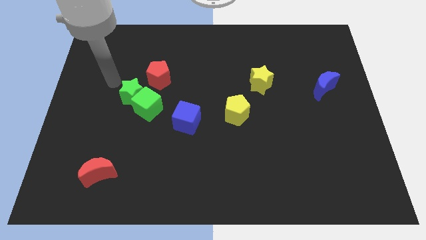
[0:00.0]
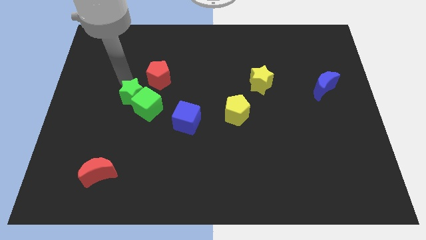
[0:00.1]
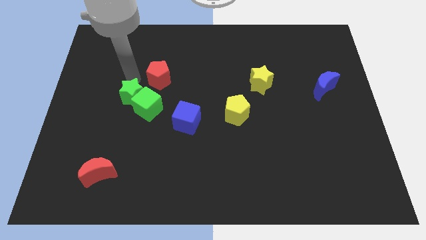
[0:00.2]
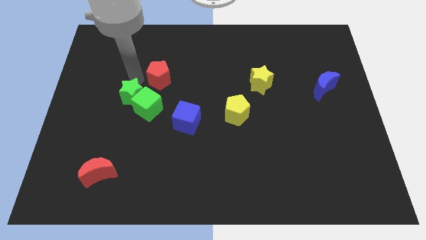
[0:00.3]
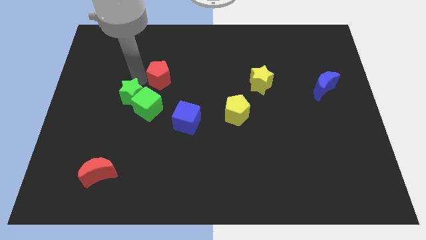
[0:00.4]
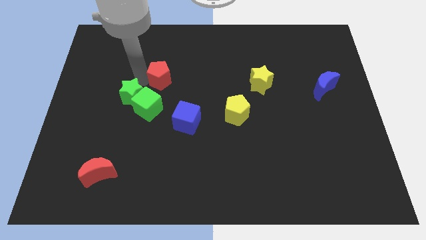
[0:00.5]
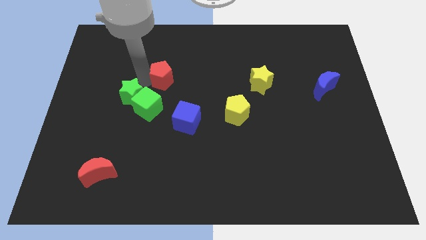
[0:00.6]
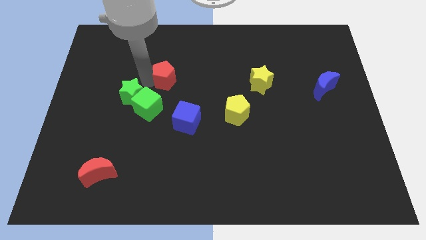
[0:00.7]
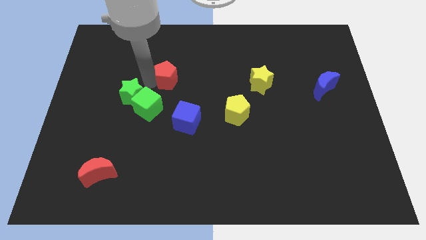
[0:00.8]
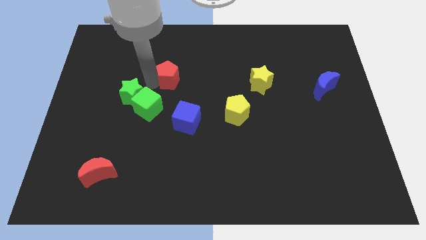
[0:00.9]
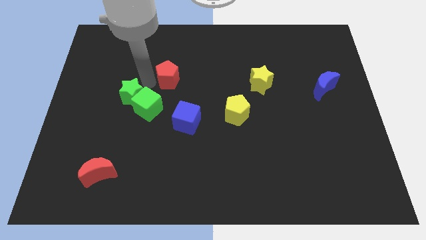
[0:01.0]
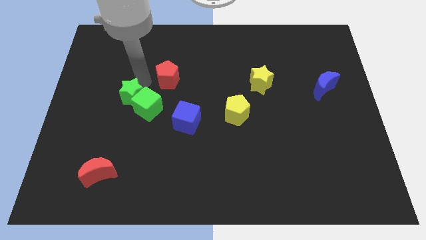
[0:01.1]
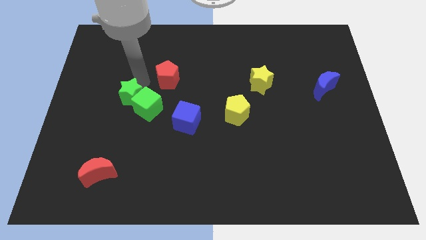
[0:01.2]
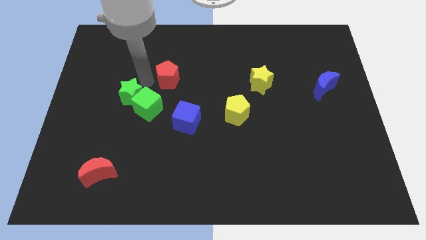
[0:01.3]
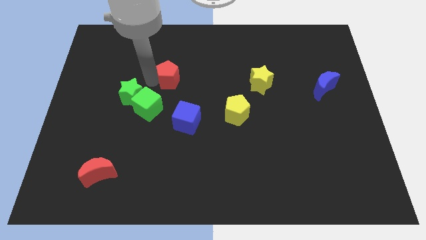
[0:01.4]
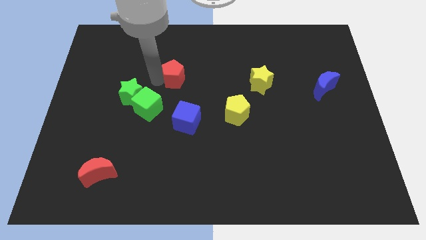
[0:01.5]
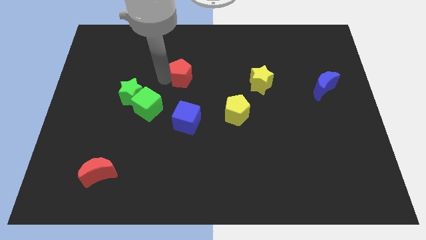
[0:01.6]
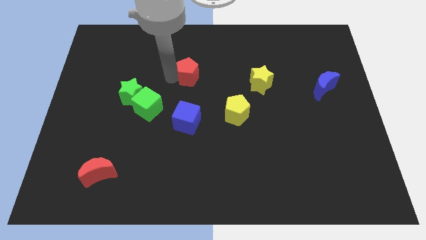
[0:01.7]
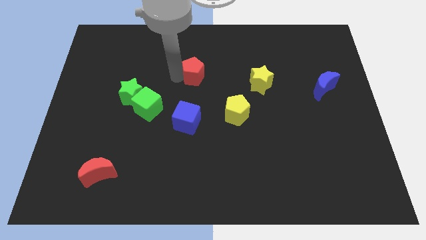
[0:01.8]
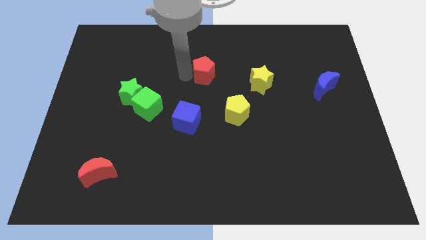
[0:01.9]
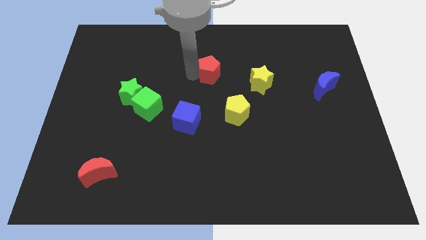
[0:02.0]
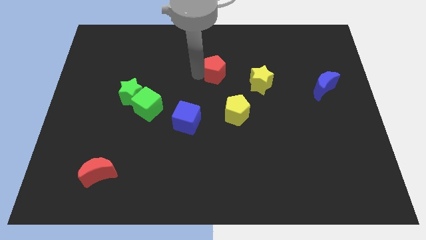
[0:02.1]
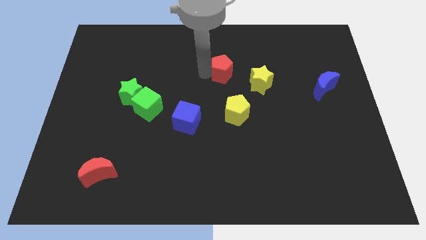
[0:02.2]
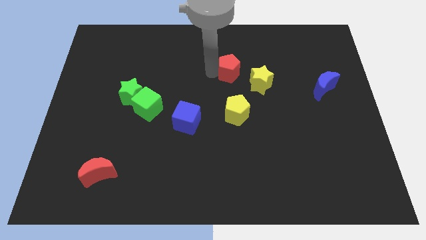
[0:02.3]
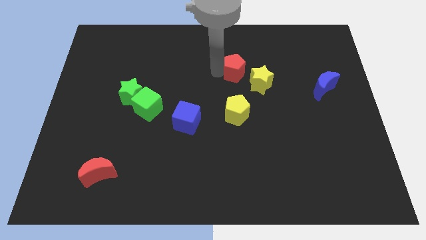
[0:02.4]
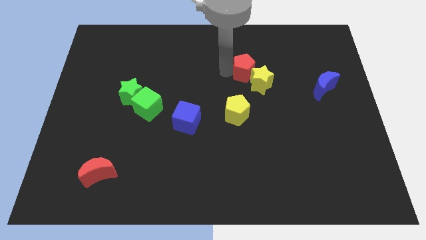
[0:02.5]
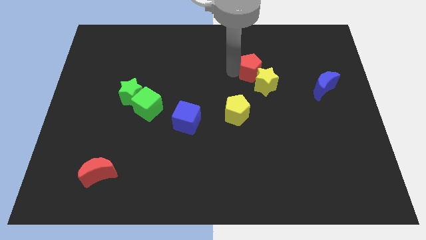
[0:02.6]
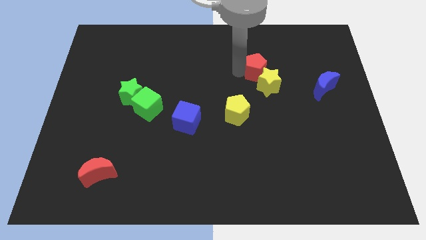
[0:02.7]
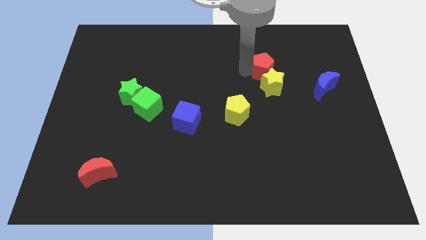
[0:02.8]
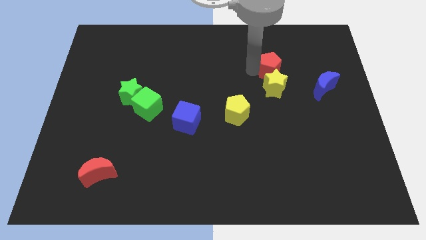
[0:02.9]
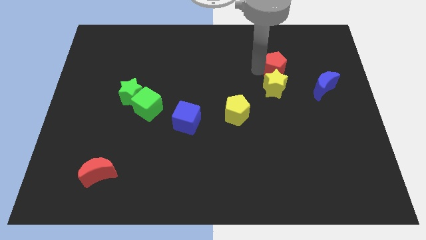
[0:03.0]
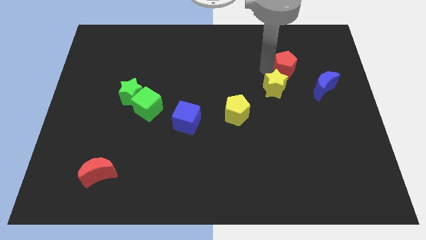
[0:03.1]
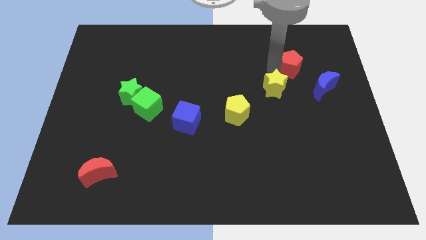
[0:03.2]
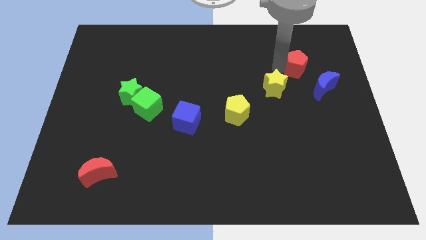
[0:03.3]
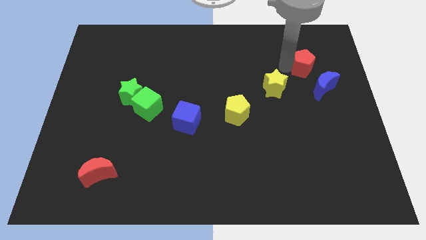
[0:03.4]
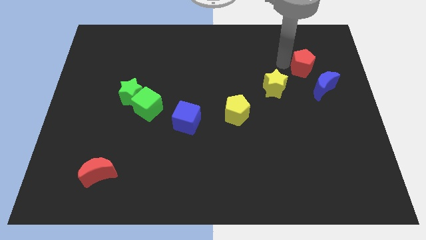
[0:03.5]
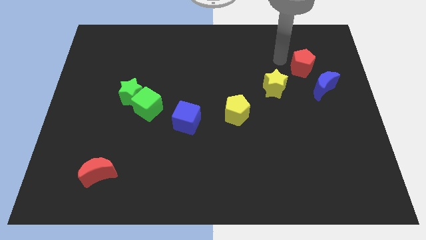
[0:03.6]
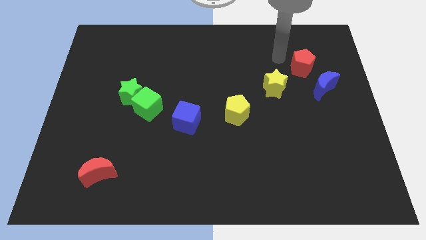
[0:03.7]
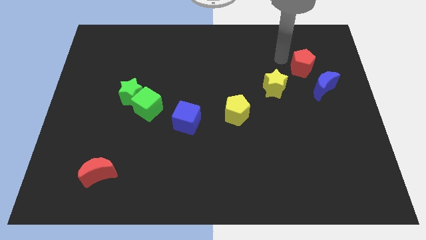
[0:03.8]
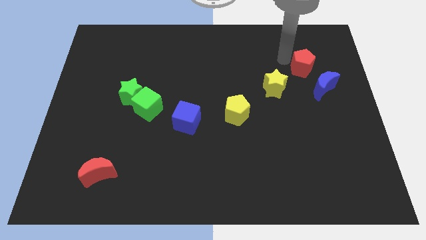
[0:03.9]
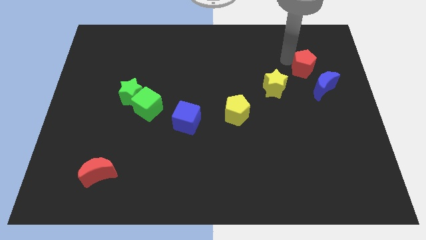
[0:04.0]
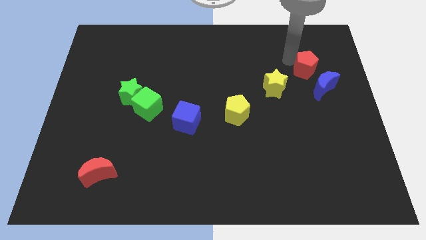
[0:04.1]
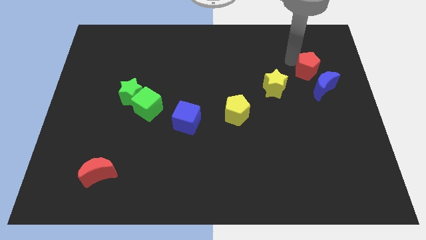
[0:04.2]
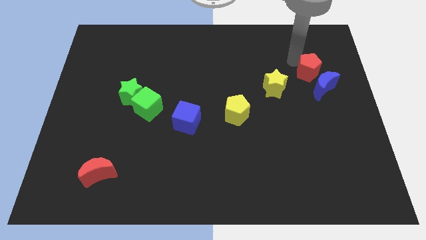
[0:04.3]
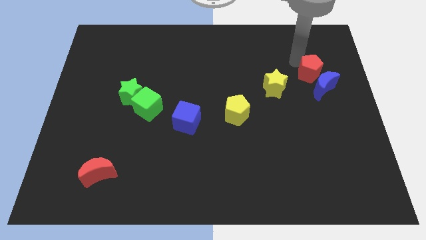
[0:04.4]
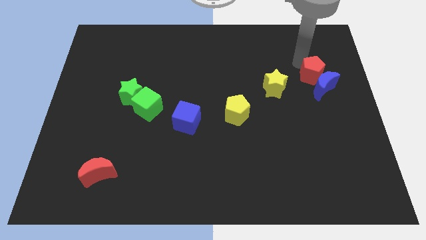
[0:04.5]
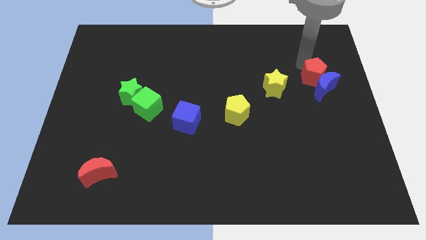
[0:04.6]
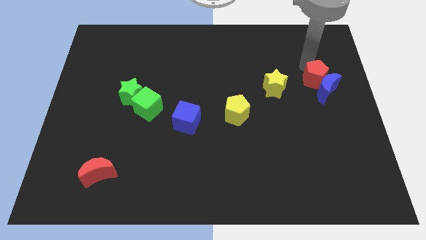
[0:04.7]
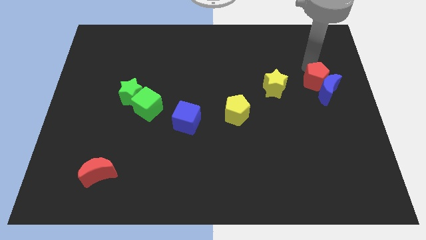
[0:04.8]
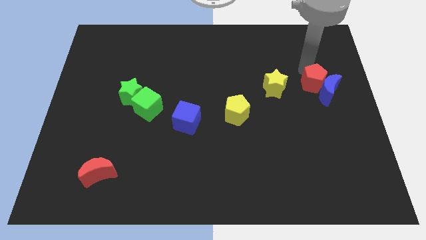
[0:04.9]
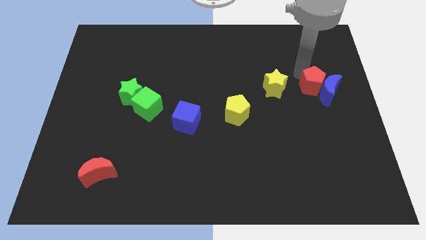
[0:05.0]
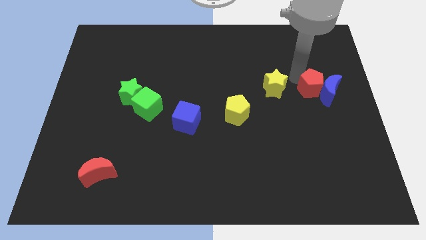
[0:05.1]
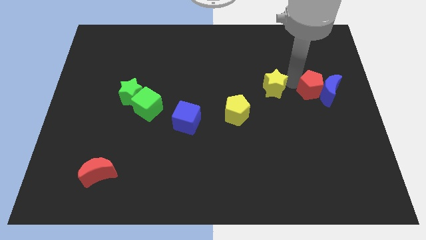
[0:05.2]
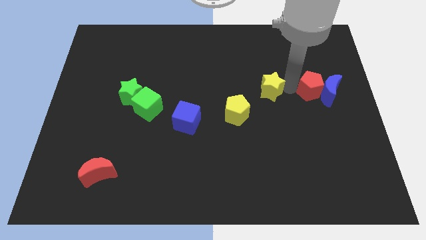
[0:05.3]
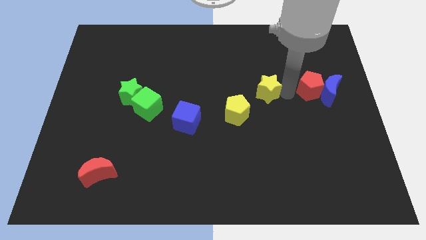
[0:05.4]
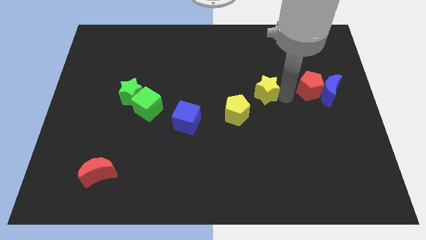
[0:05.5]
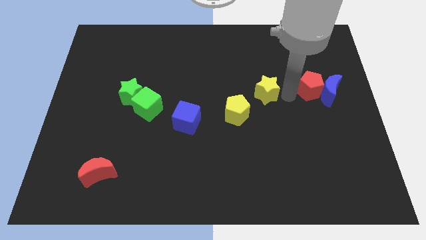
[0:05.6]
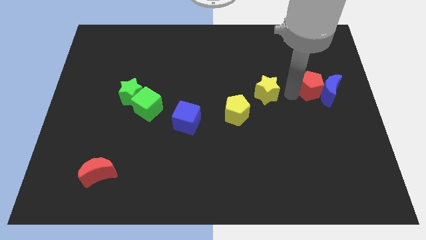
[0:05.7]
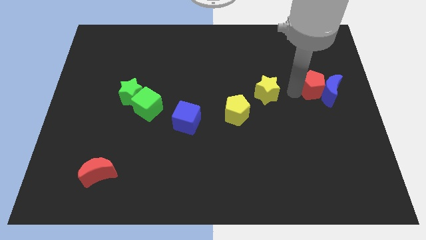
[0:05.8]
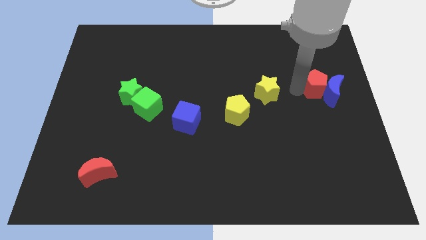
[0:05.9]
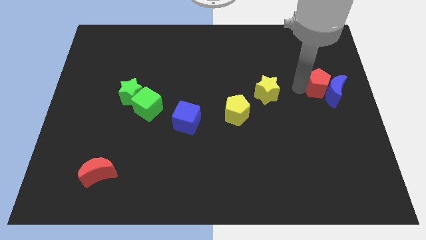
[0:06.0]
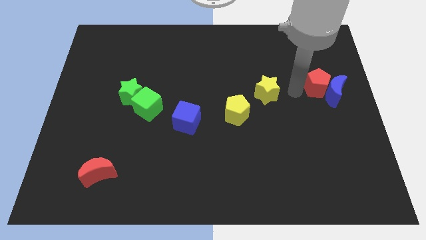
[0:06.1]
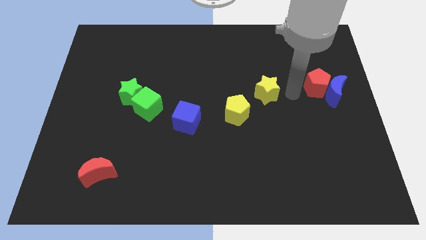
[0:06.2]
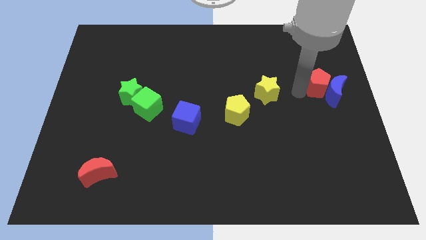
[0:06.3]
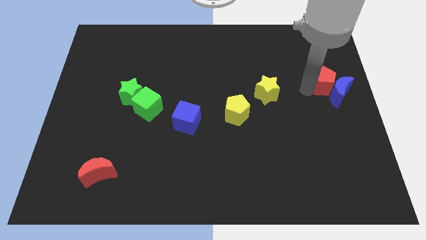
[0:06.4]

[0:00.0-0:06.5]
push the red pentagon to the right side
